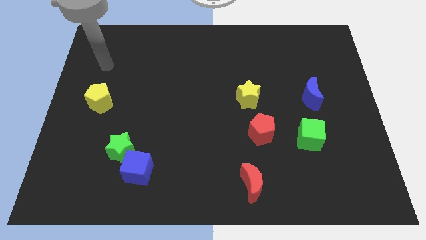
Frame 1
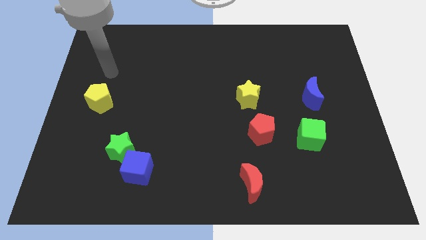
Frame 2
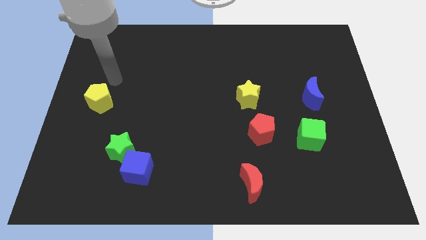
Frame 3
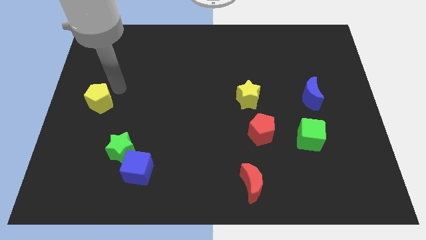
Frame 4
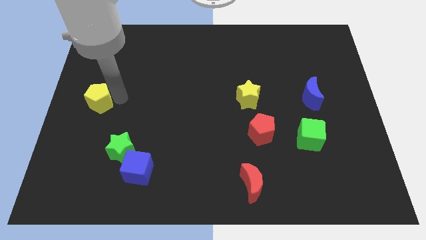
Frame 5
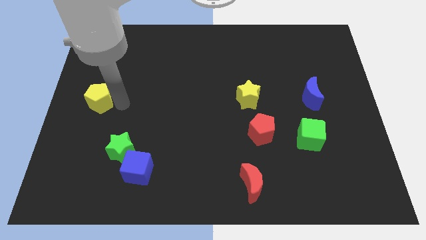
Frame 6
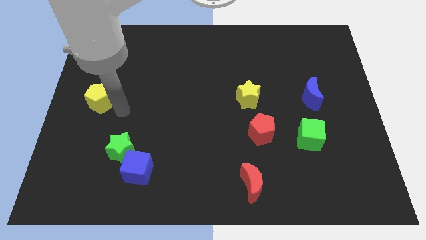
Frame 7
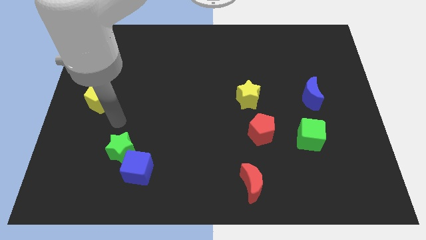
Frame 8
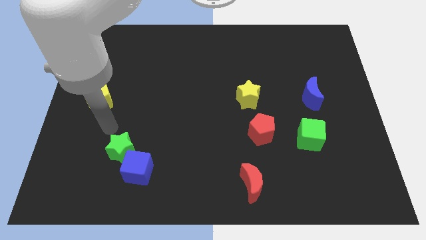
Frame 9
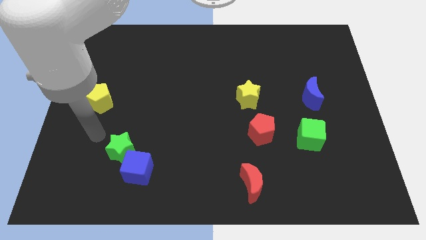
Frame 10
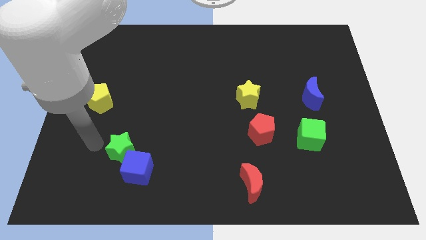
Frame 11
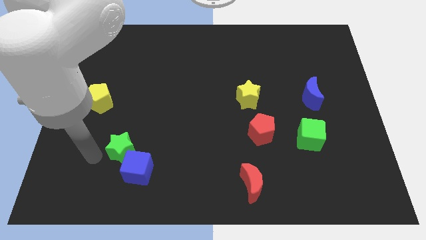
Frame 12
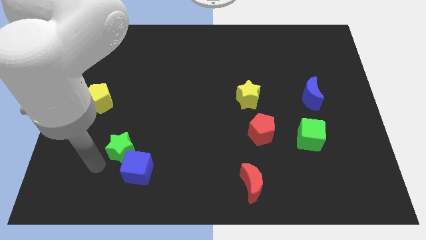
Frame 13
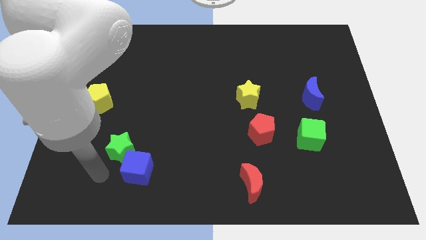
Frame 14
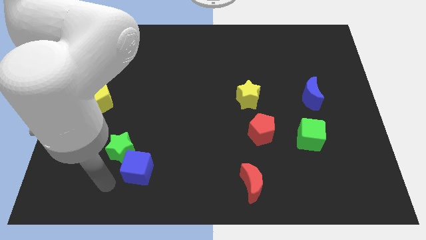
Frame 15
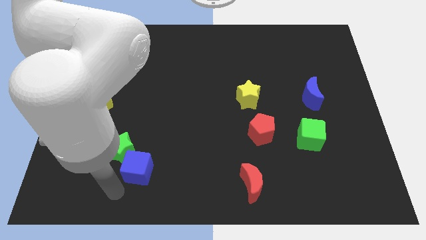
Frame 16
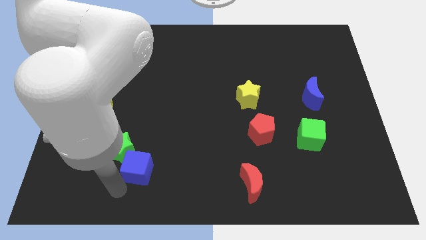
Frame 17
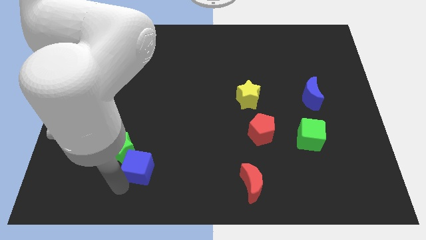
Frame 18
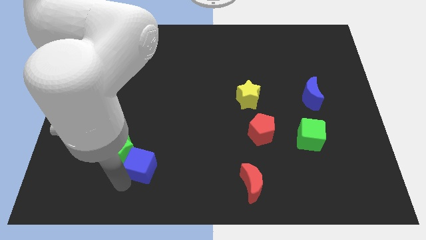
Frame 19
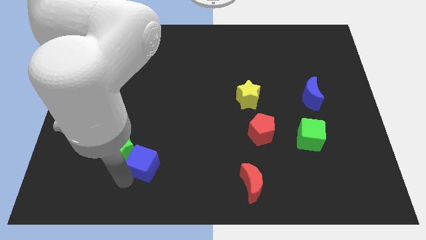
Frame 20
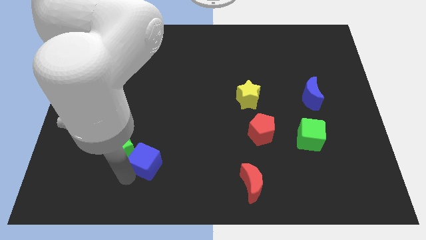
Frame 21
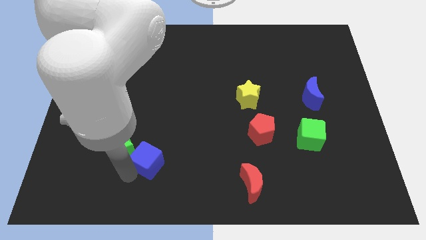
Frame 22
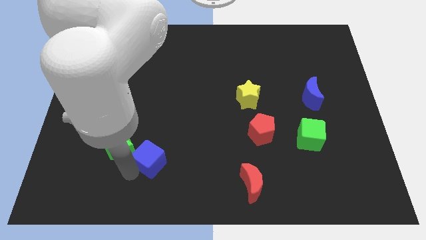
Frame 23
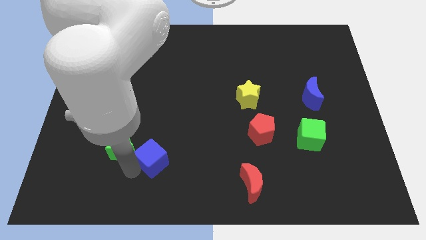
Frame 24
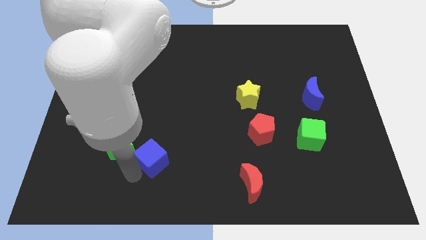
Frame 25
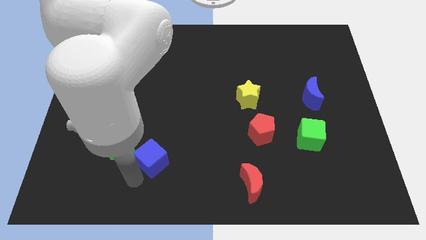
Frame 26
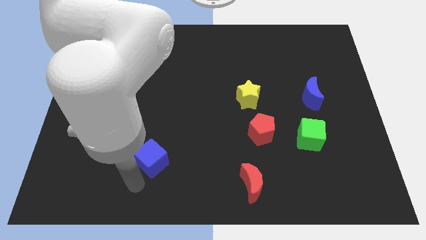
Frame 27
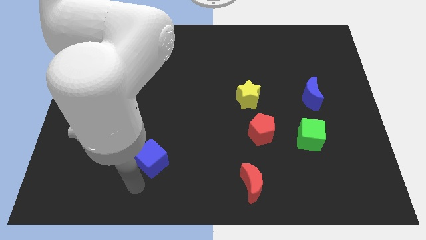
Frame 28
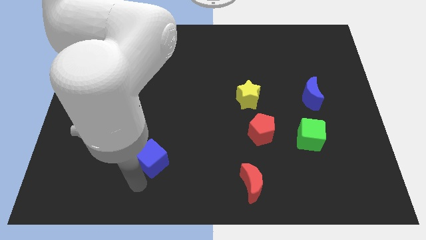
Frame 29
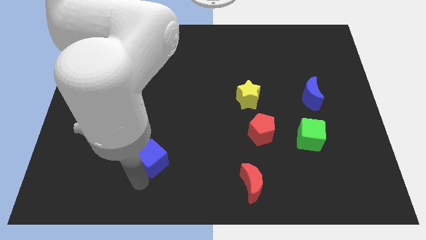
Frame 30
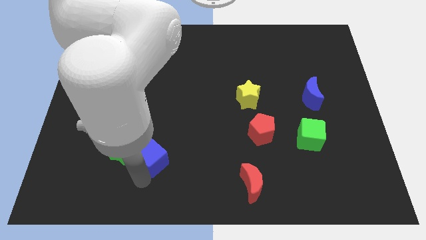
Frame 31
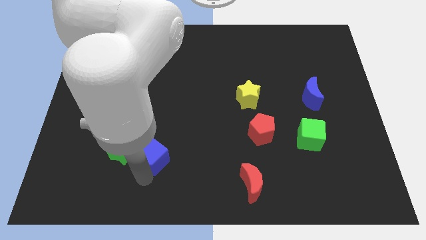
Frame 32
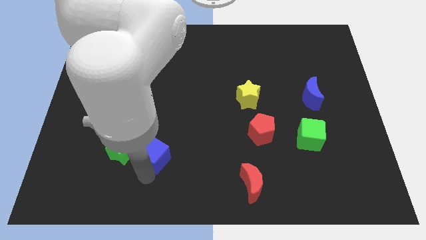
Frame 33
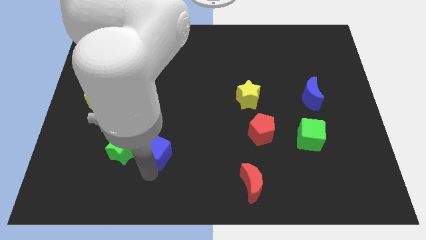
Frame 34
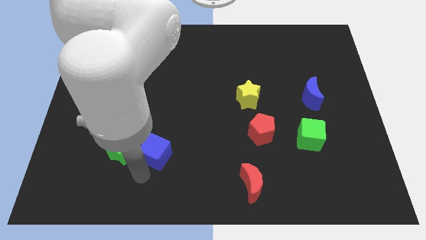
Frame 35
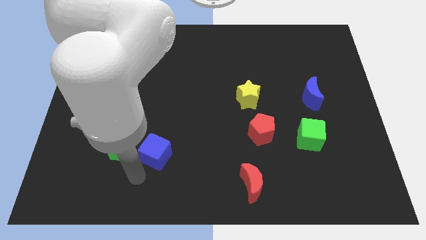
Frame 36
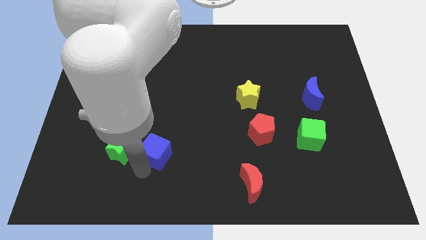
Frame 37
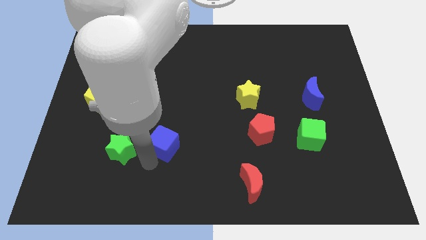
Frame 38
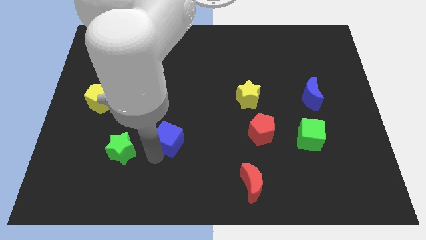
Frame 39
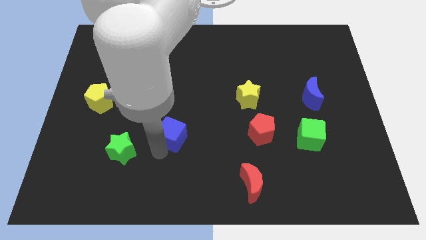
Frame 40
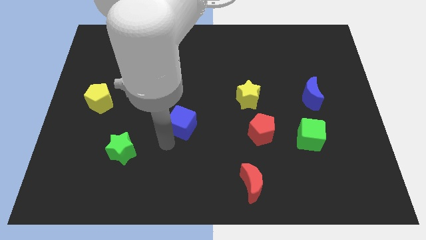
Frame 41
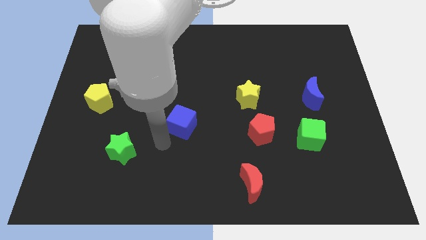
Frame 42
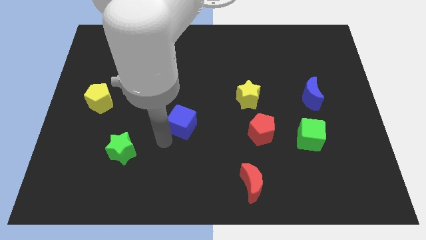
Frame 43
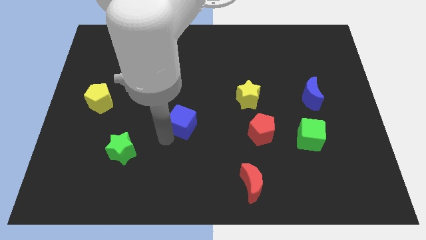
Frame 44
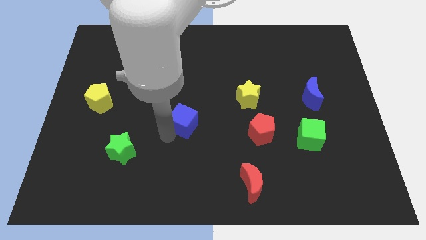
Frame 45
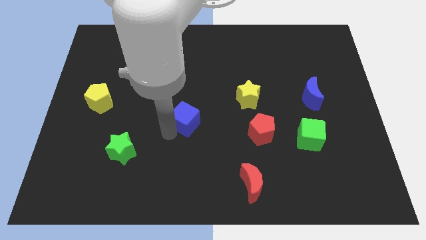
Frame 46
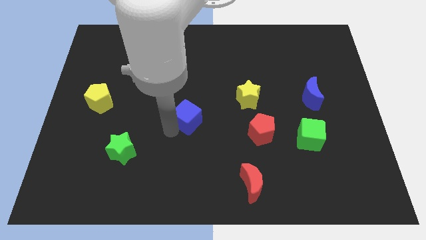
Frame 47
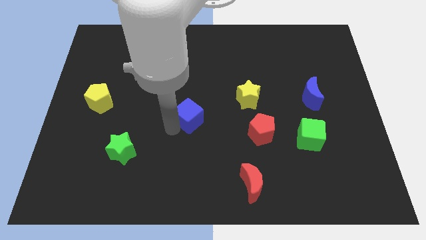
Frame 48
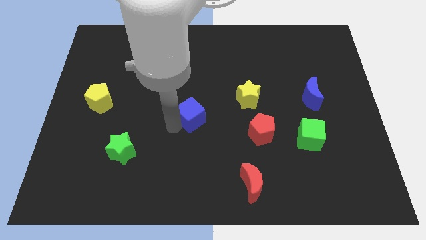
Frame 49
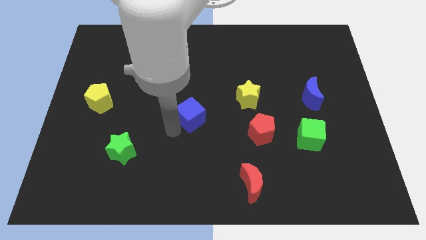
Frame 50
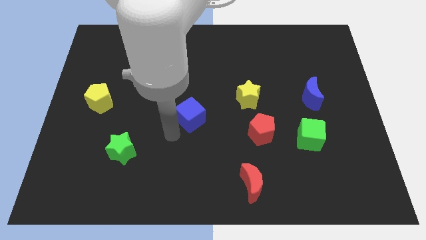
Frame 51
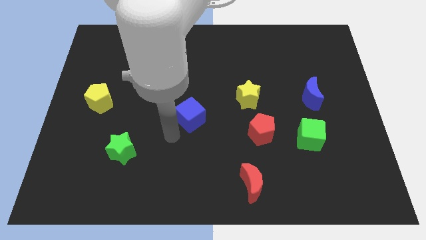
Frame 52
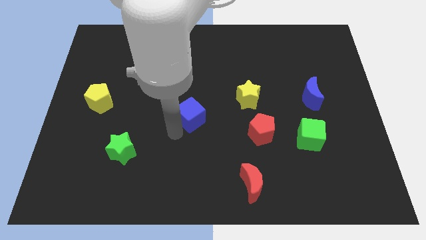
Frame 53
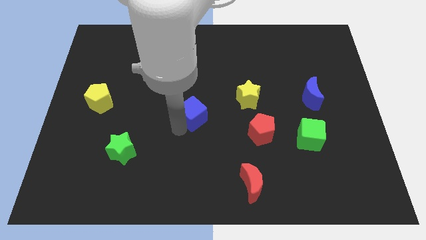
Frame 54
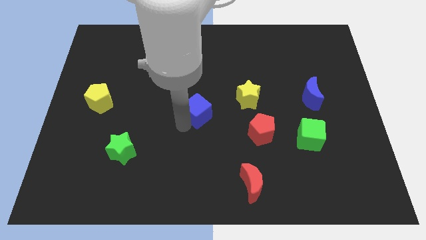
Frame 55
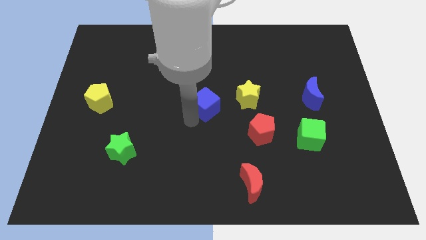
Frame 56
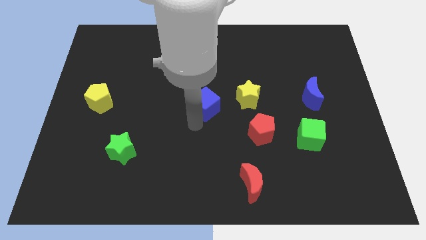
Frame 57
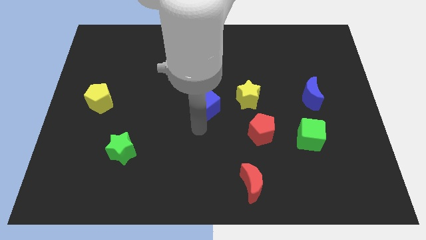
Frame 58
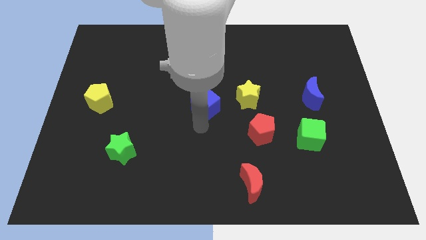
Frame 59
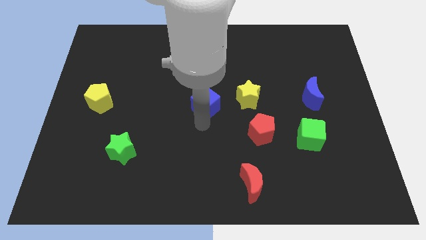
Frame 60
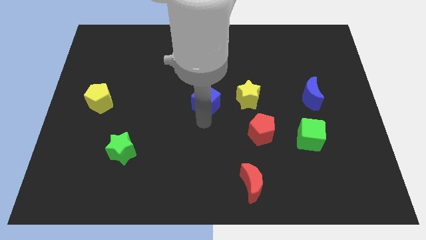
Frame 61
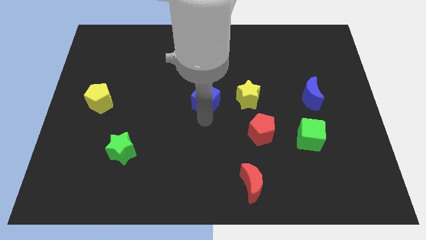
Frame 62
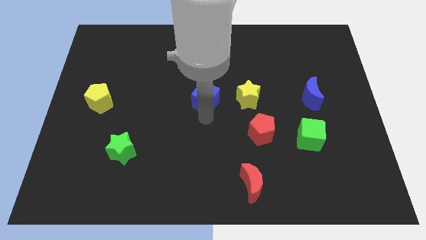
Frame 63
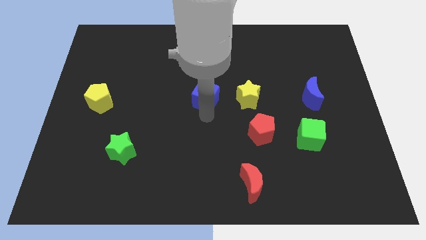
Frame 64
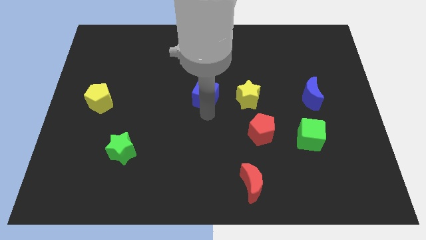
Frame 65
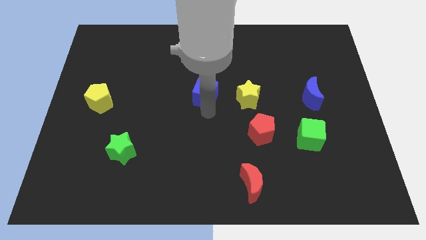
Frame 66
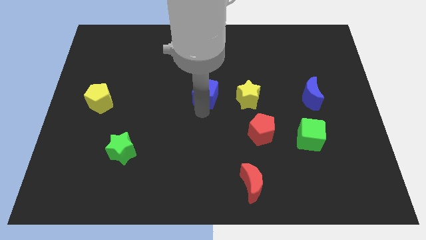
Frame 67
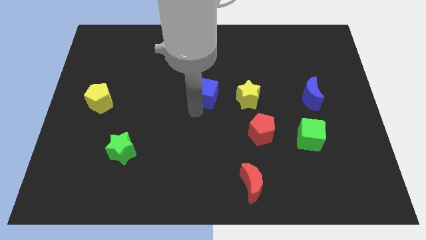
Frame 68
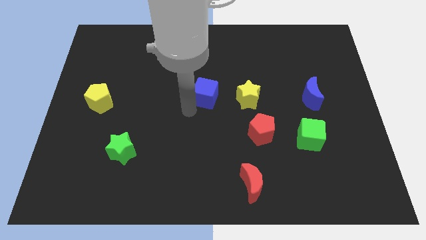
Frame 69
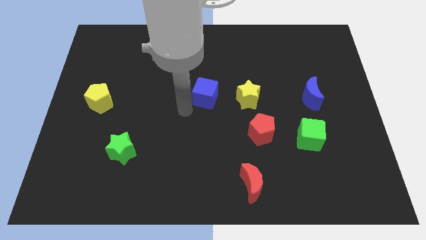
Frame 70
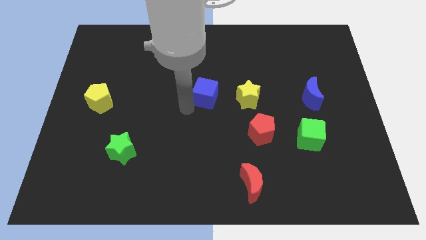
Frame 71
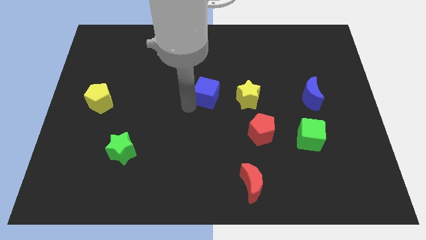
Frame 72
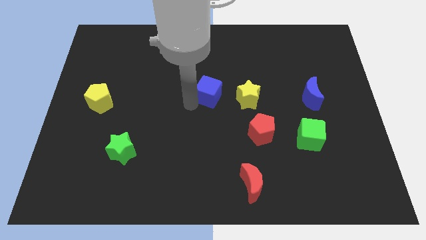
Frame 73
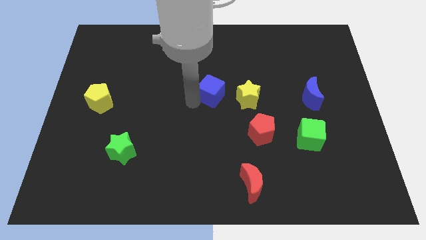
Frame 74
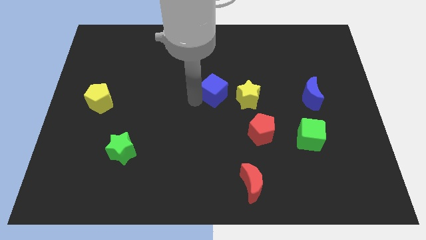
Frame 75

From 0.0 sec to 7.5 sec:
slide the blue cube to the top left side of the yellow star

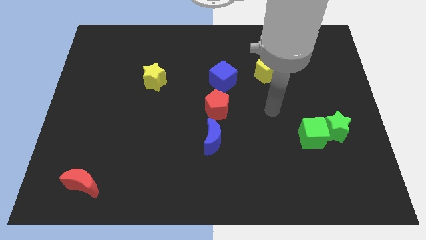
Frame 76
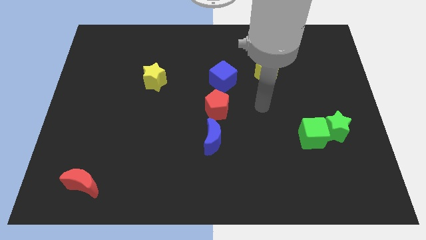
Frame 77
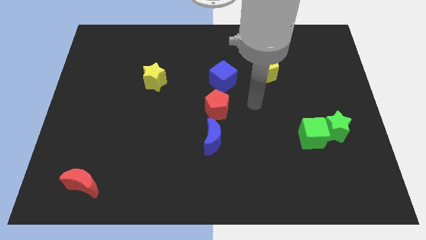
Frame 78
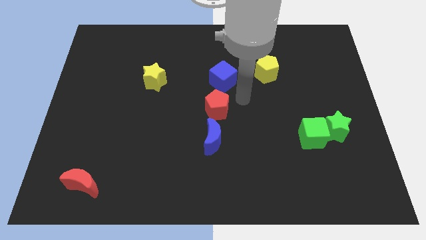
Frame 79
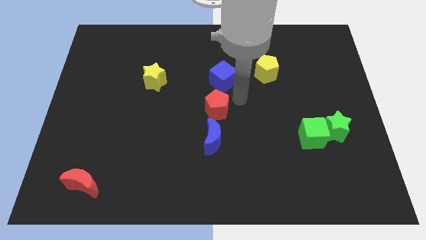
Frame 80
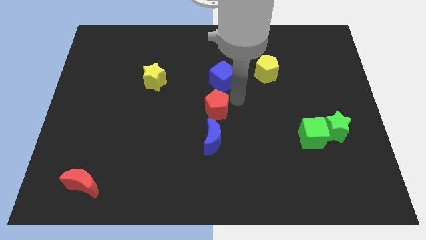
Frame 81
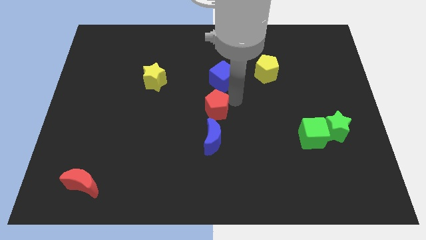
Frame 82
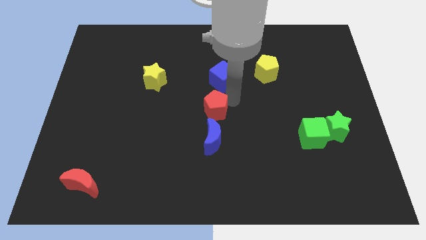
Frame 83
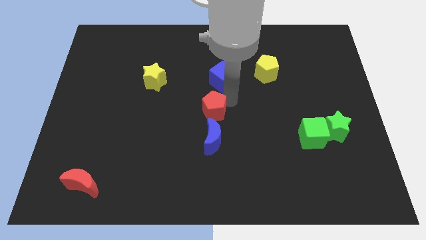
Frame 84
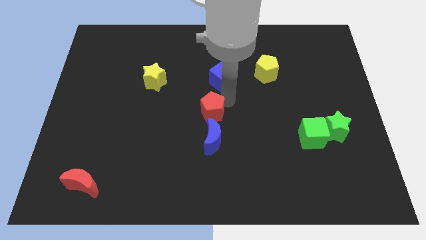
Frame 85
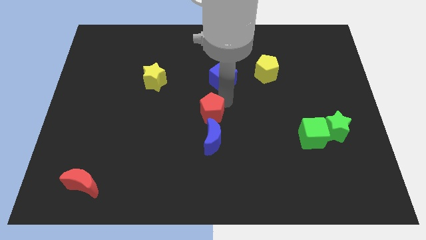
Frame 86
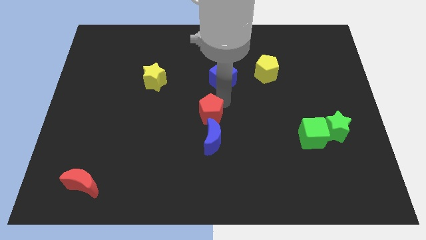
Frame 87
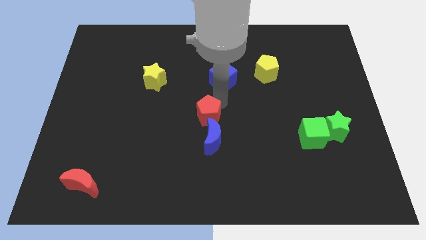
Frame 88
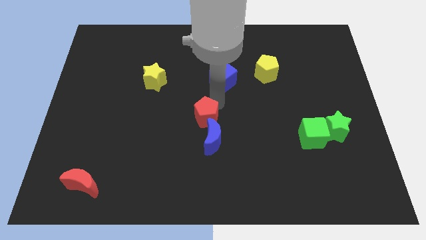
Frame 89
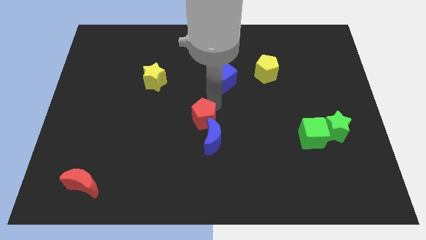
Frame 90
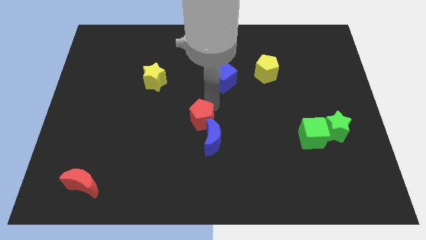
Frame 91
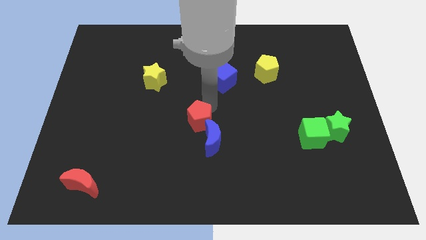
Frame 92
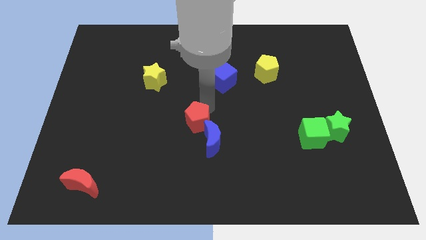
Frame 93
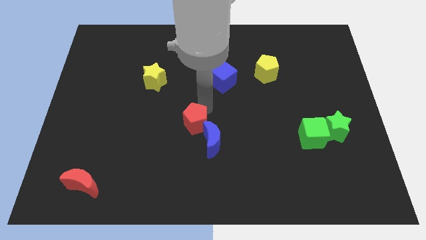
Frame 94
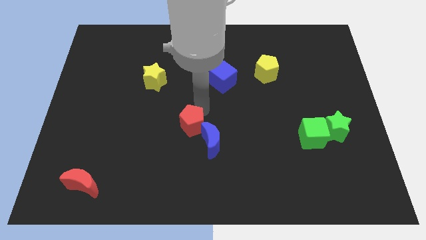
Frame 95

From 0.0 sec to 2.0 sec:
put the red pentagon to the left of the blue moon
